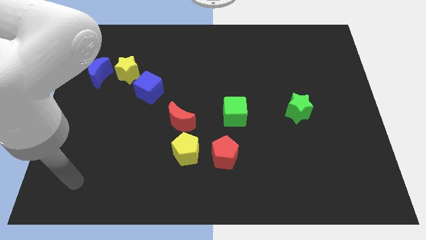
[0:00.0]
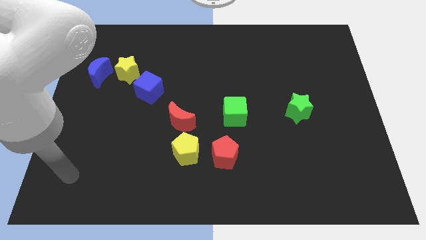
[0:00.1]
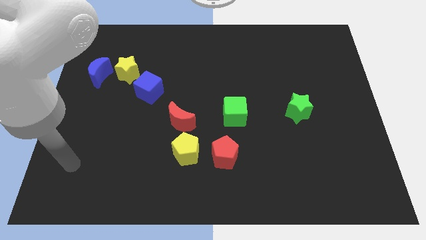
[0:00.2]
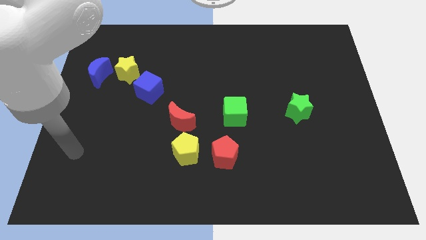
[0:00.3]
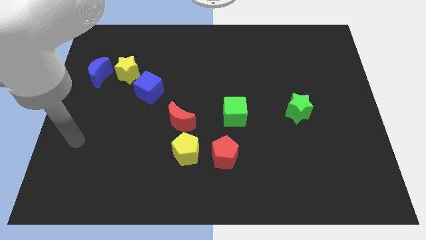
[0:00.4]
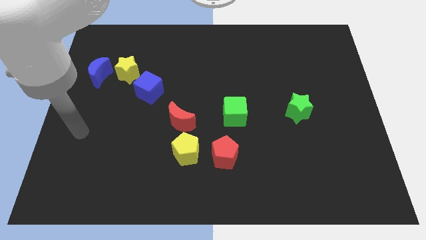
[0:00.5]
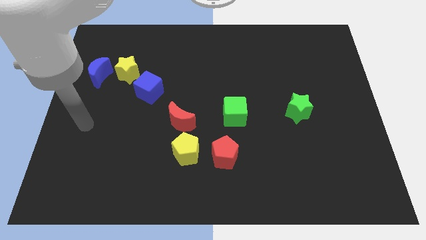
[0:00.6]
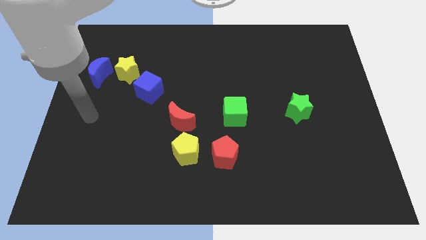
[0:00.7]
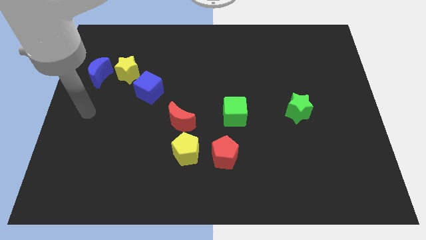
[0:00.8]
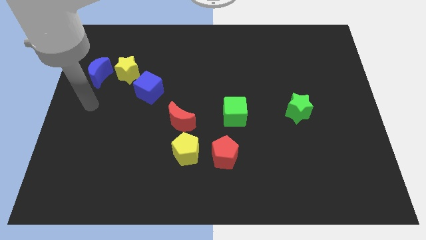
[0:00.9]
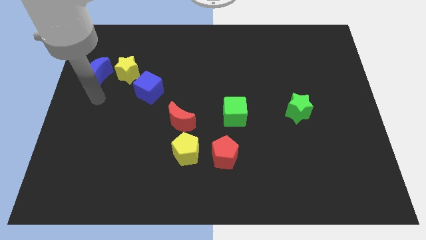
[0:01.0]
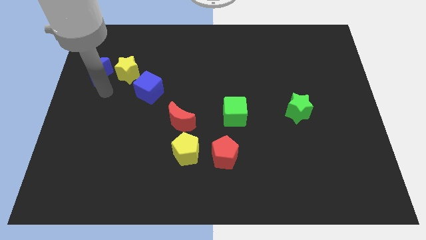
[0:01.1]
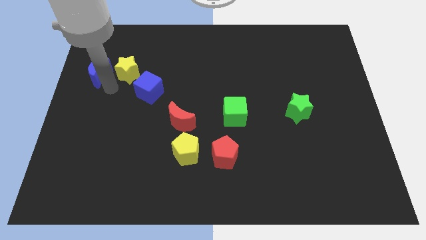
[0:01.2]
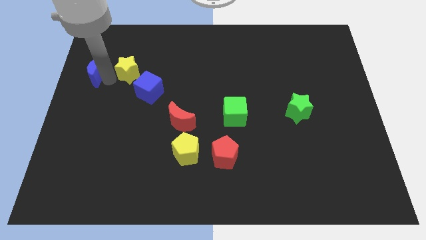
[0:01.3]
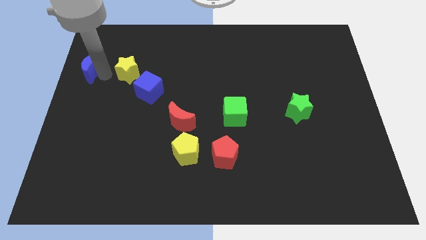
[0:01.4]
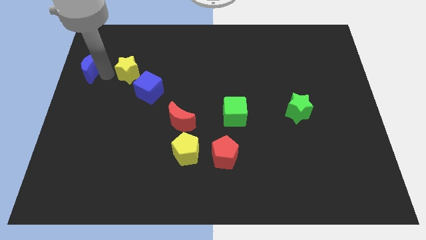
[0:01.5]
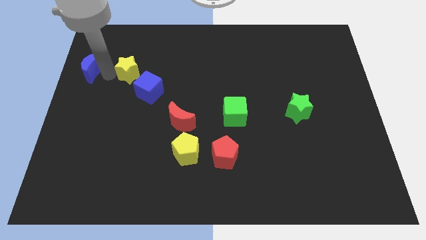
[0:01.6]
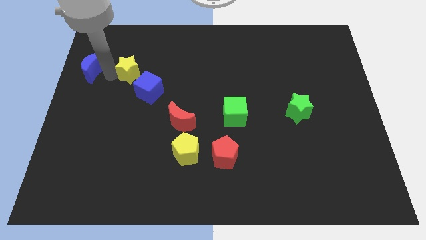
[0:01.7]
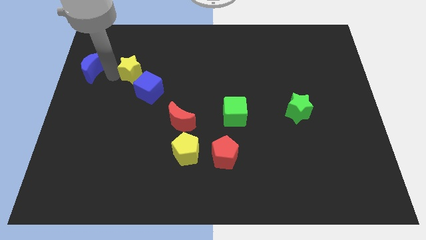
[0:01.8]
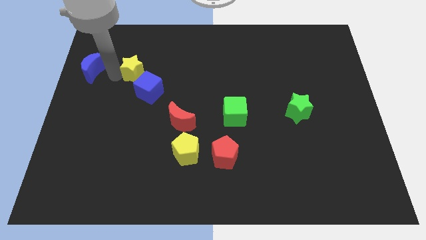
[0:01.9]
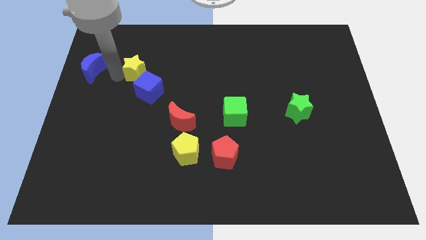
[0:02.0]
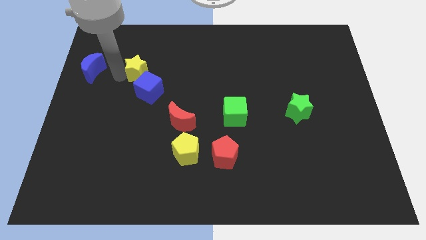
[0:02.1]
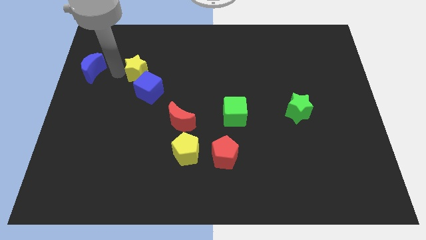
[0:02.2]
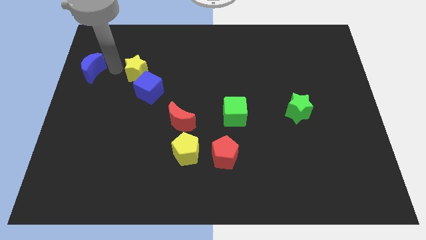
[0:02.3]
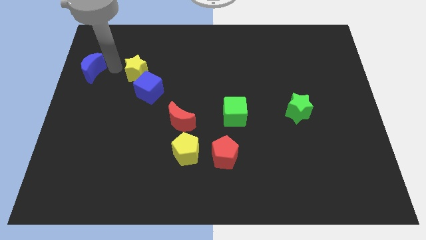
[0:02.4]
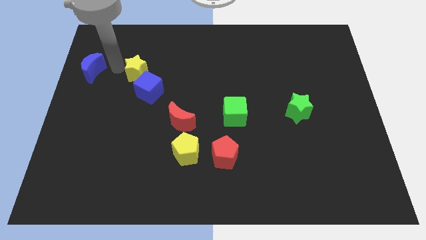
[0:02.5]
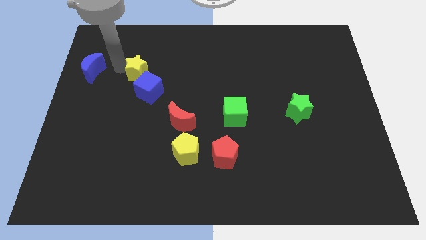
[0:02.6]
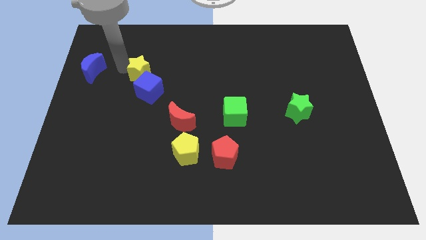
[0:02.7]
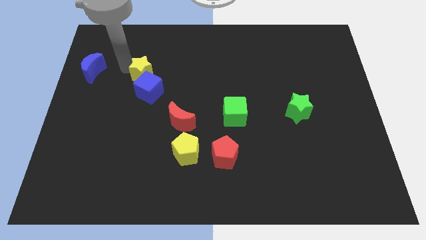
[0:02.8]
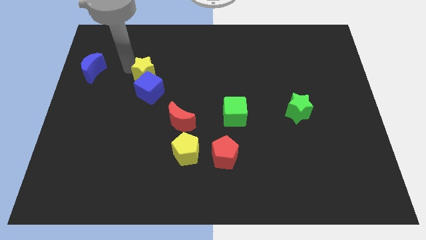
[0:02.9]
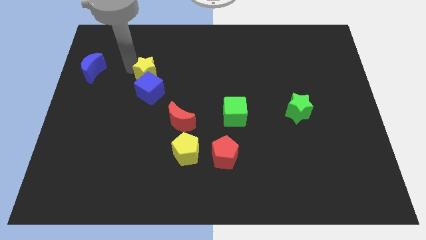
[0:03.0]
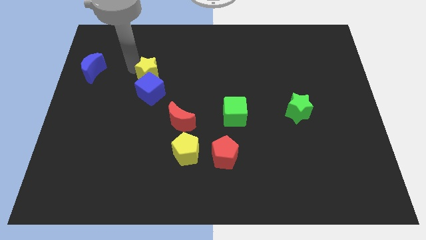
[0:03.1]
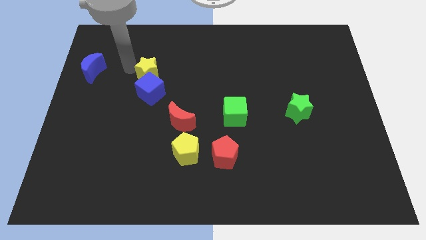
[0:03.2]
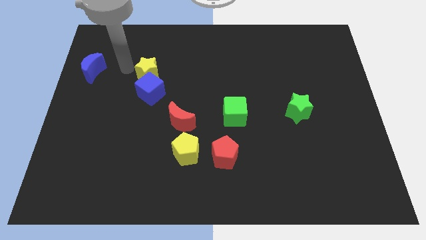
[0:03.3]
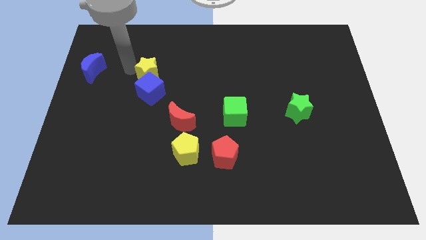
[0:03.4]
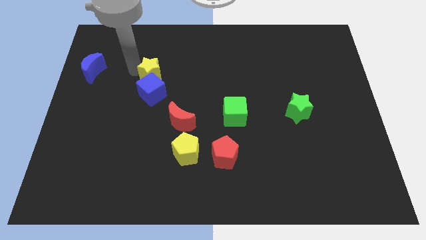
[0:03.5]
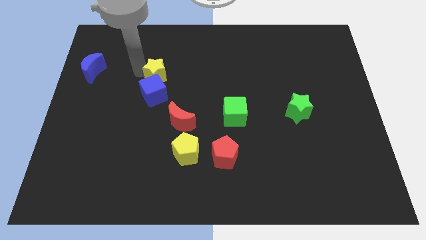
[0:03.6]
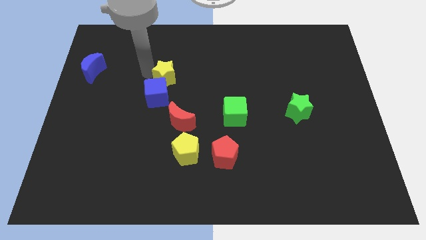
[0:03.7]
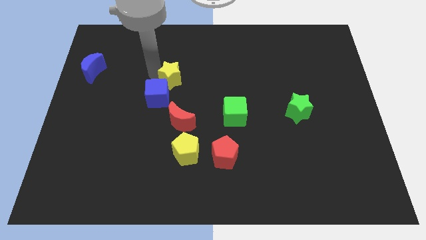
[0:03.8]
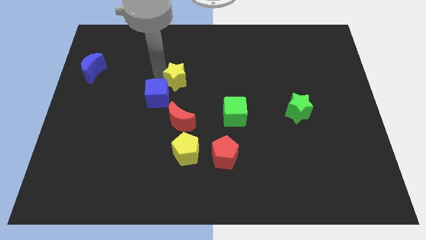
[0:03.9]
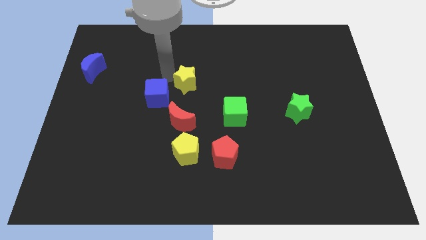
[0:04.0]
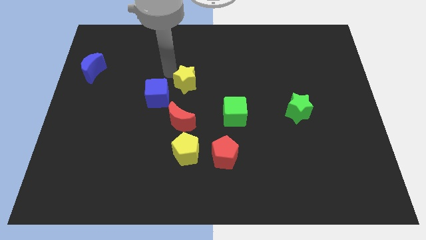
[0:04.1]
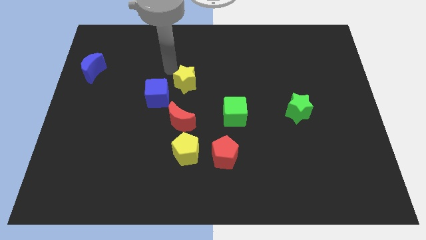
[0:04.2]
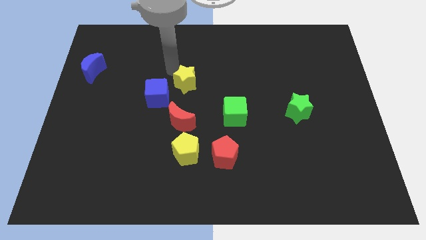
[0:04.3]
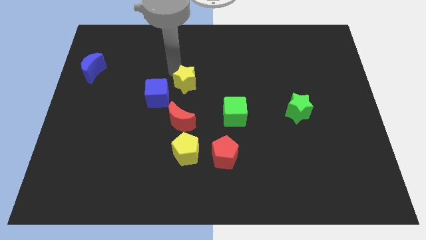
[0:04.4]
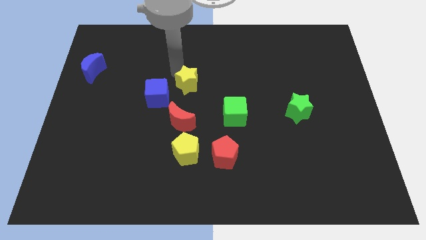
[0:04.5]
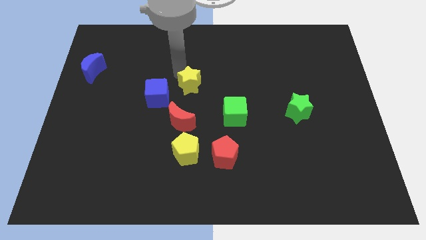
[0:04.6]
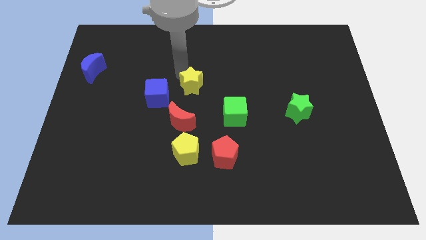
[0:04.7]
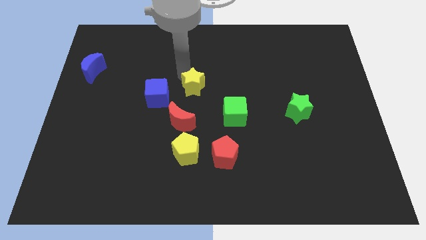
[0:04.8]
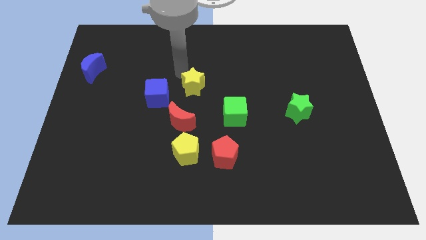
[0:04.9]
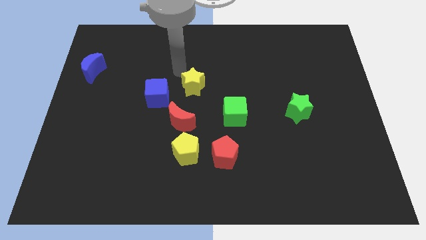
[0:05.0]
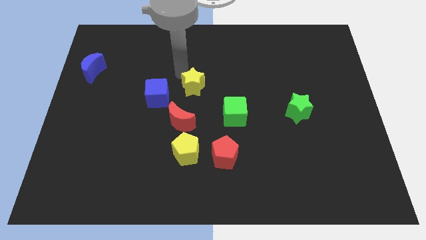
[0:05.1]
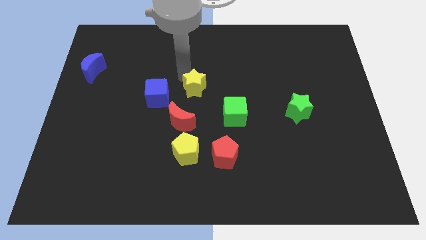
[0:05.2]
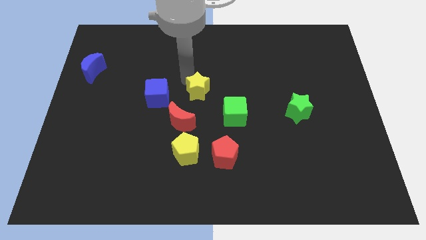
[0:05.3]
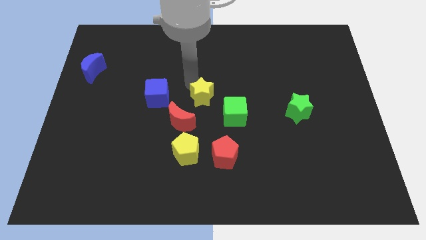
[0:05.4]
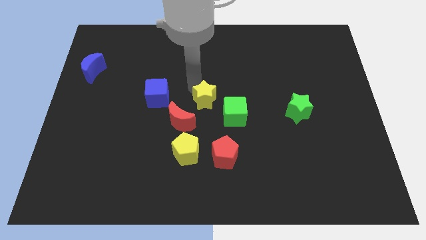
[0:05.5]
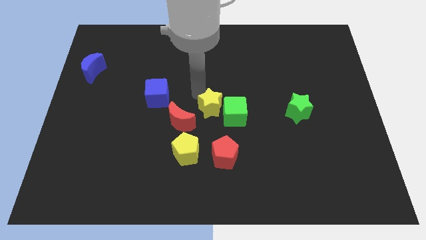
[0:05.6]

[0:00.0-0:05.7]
push the yellow star close to the green cube

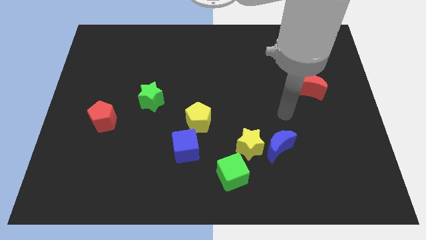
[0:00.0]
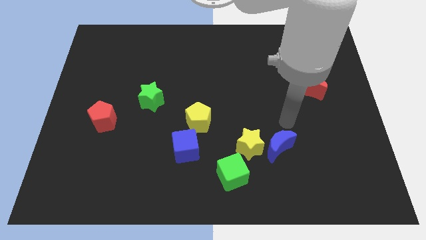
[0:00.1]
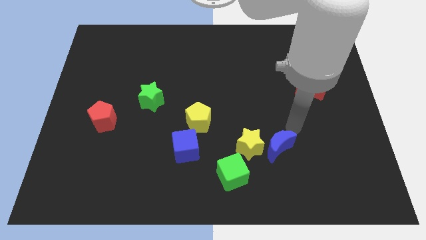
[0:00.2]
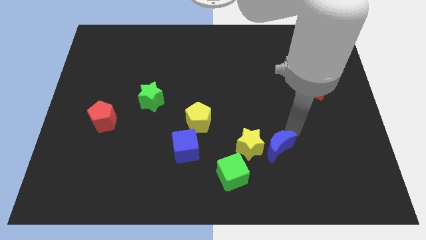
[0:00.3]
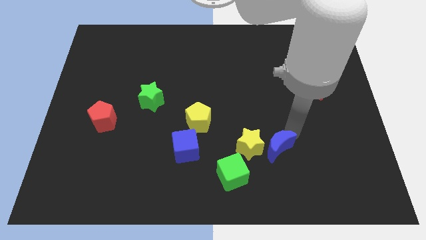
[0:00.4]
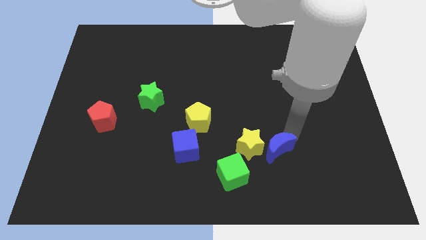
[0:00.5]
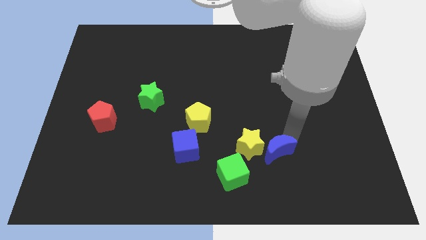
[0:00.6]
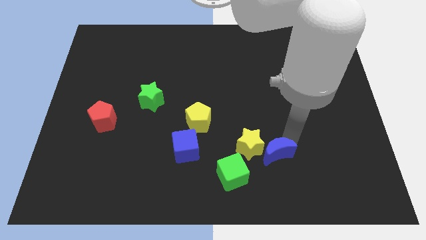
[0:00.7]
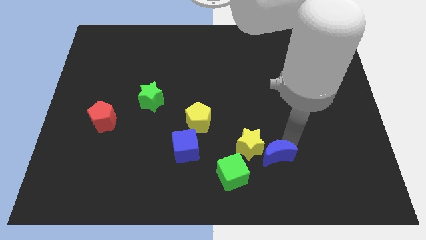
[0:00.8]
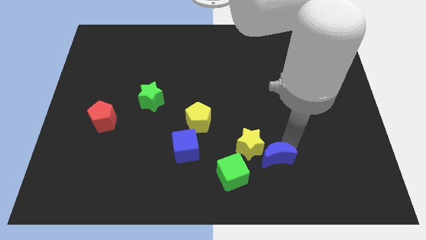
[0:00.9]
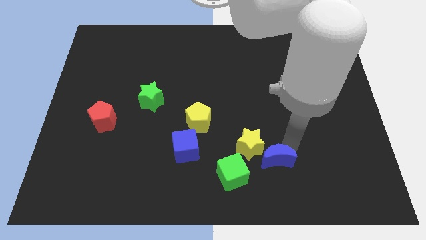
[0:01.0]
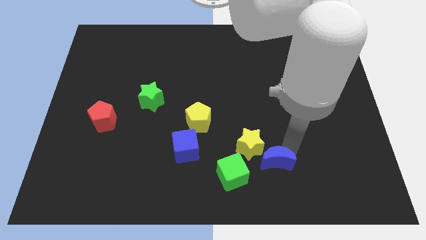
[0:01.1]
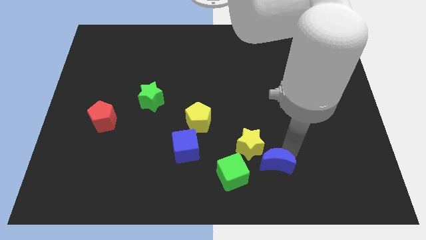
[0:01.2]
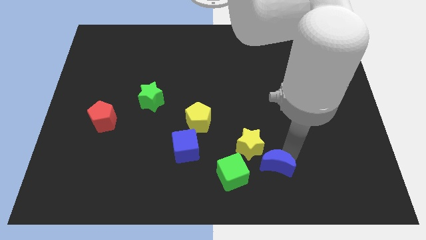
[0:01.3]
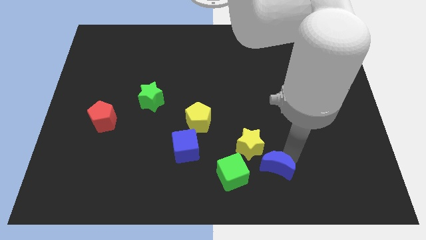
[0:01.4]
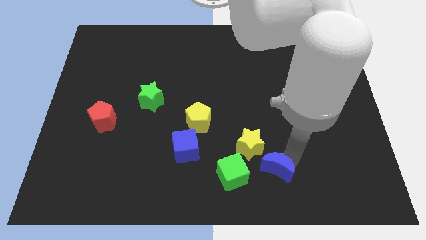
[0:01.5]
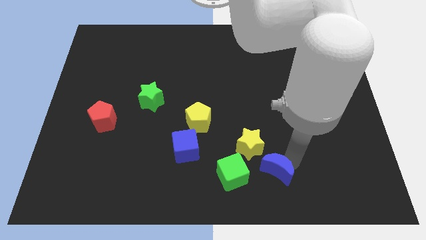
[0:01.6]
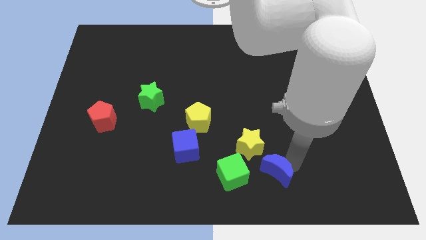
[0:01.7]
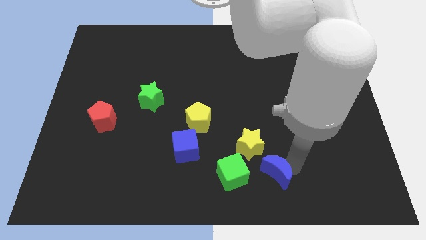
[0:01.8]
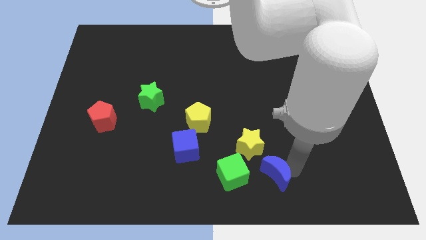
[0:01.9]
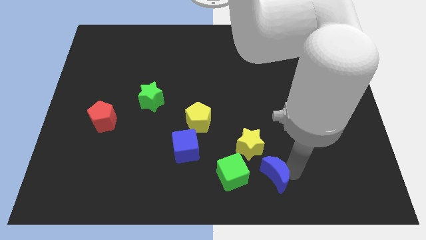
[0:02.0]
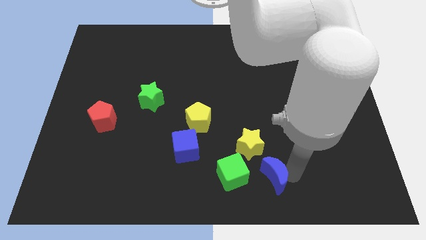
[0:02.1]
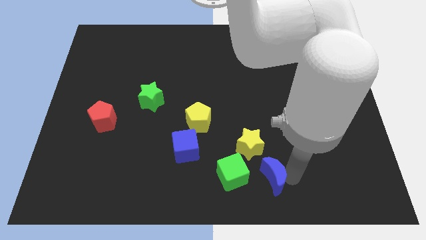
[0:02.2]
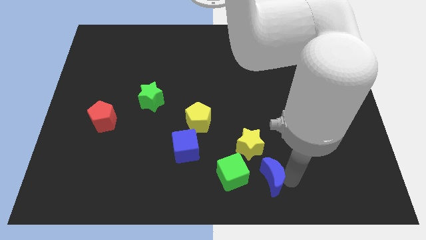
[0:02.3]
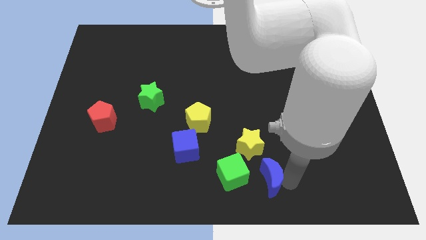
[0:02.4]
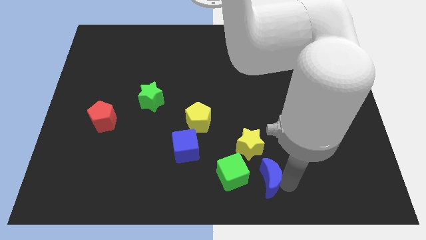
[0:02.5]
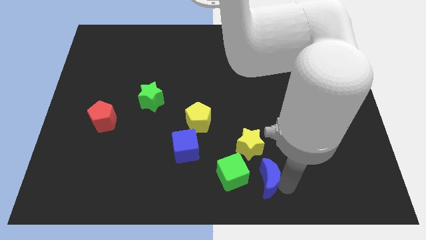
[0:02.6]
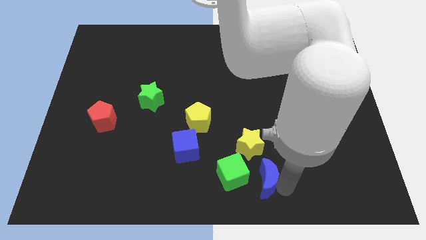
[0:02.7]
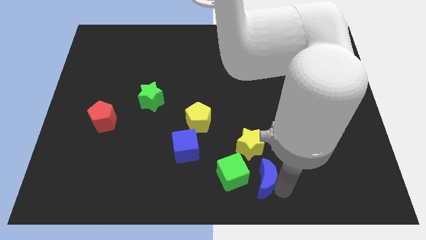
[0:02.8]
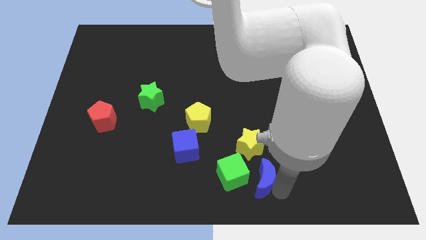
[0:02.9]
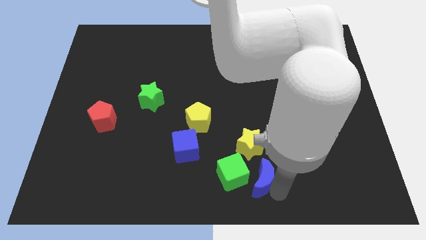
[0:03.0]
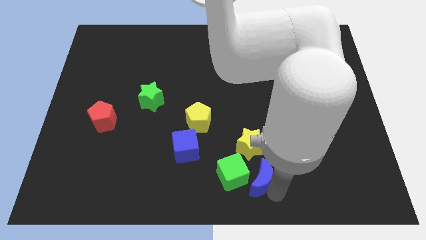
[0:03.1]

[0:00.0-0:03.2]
put the blue moon to the green cube
